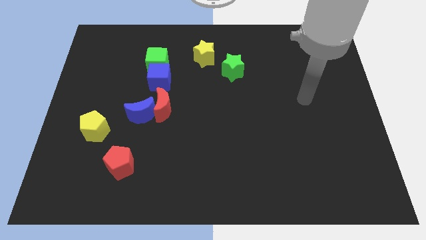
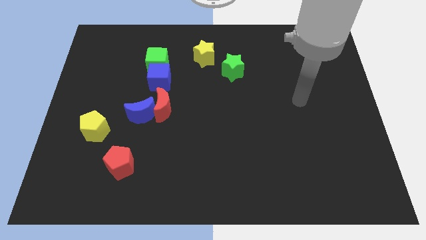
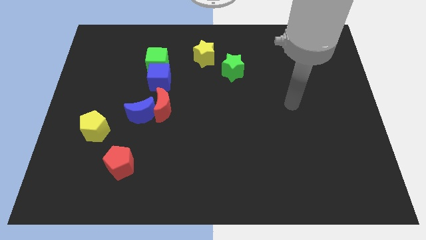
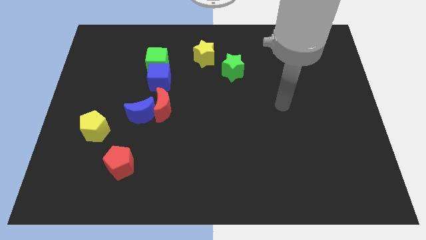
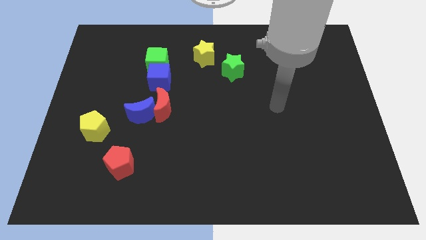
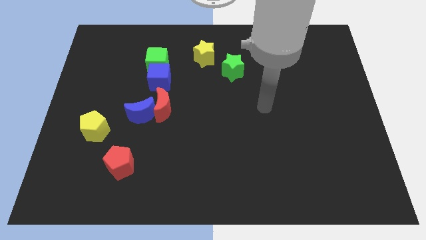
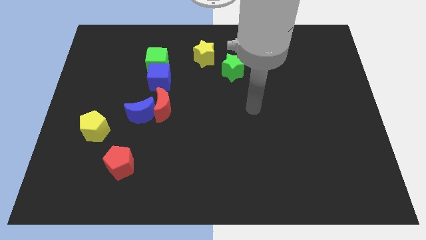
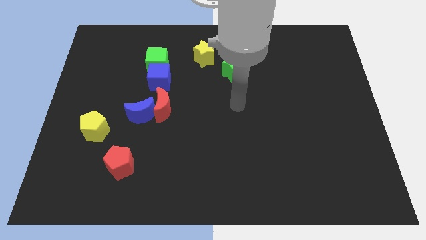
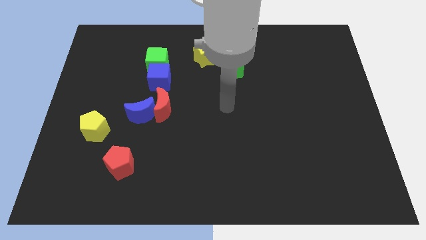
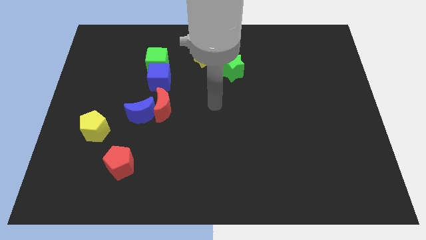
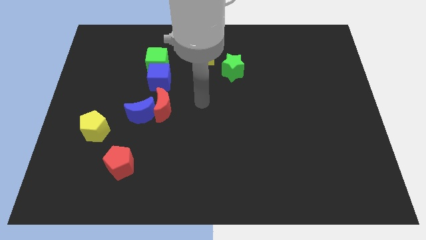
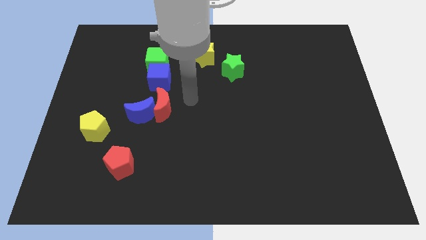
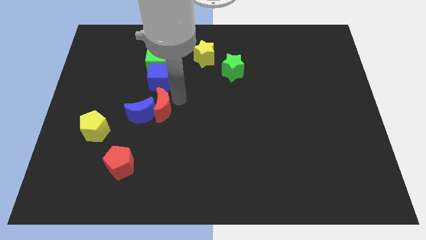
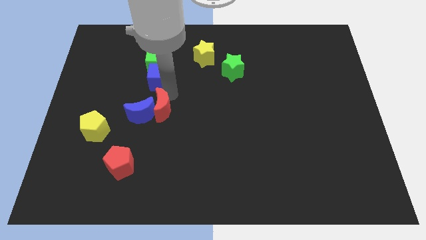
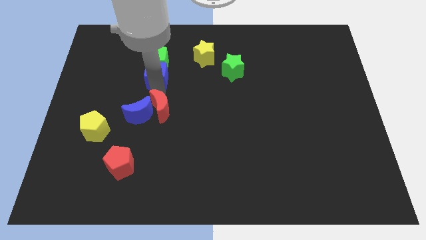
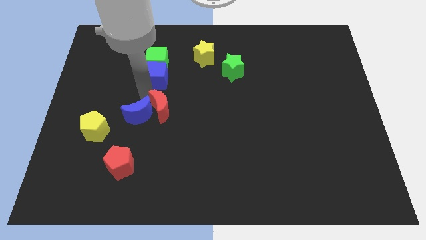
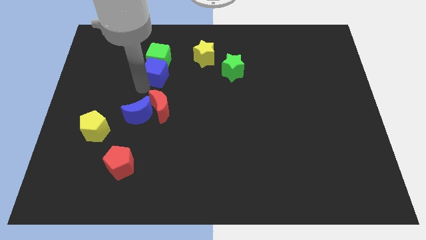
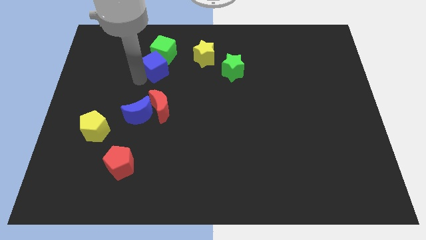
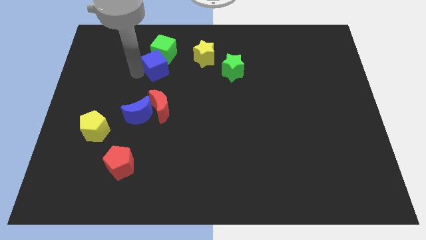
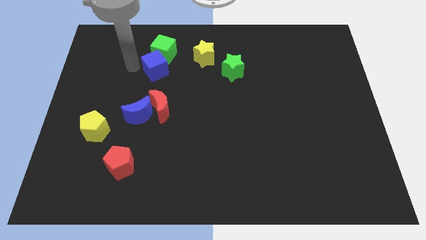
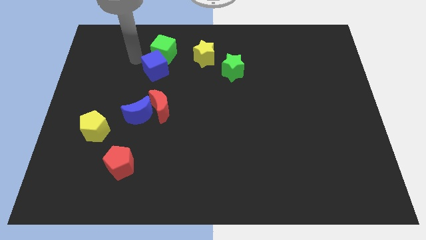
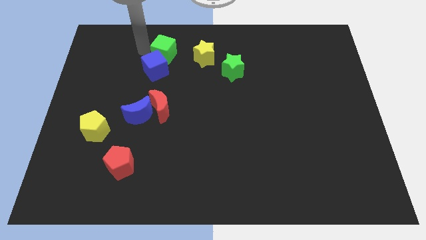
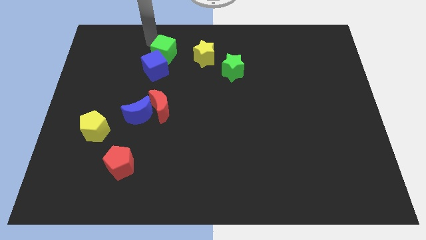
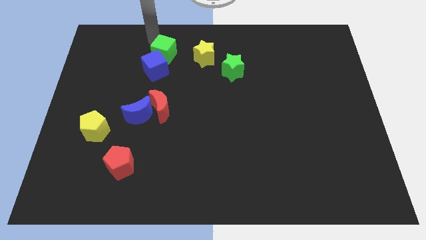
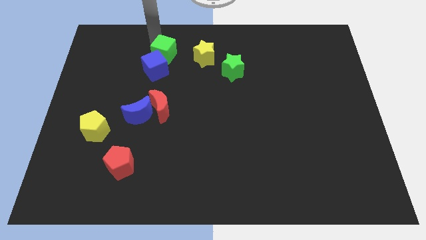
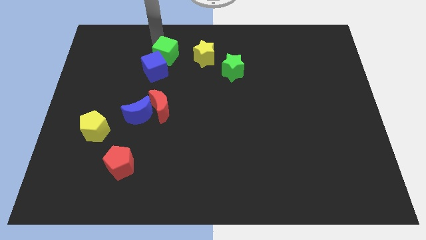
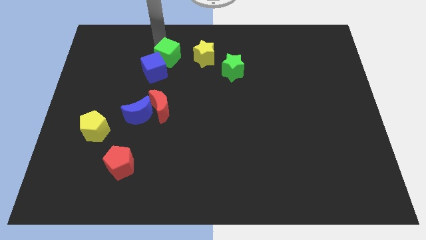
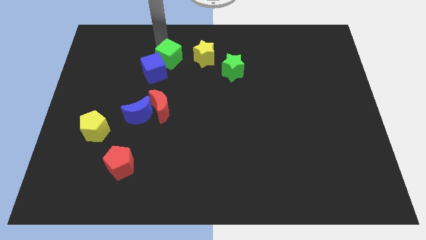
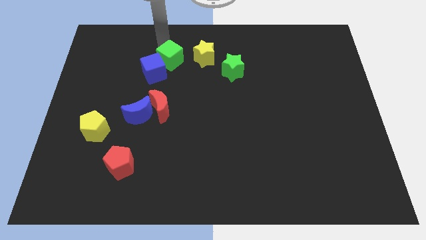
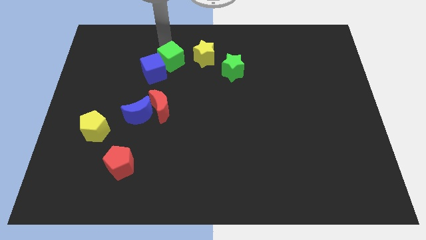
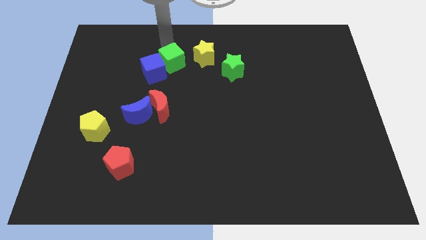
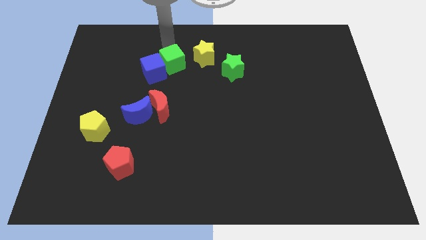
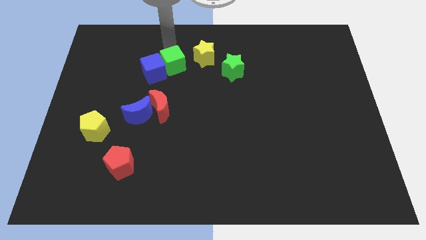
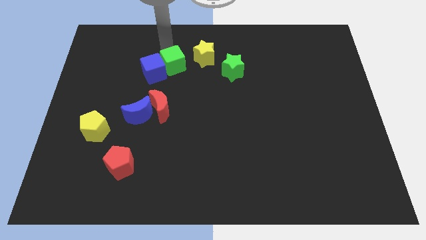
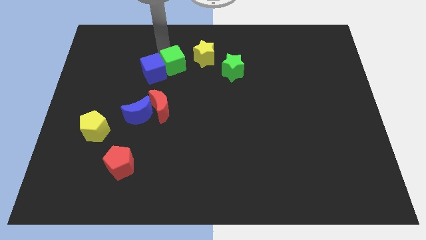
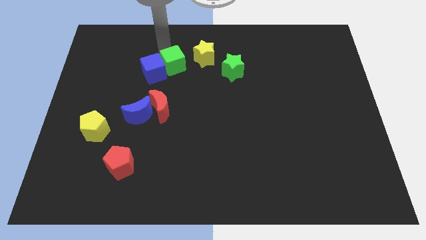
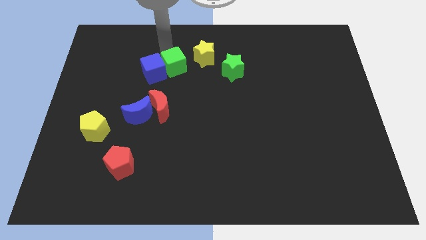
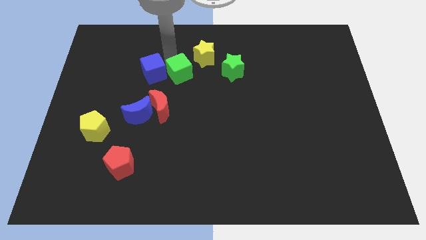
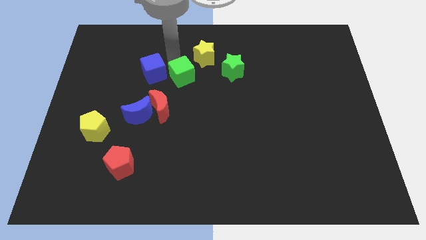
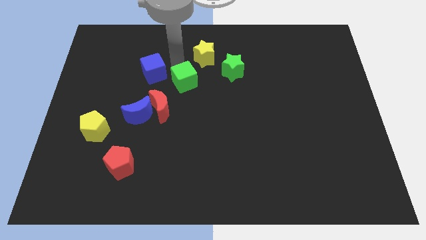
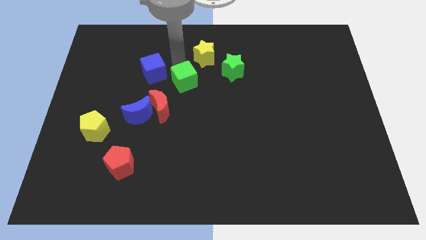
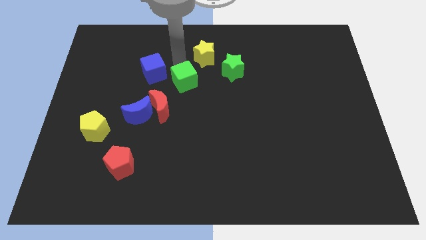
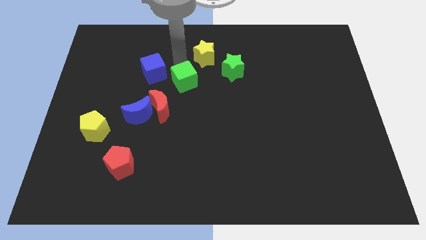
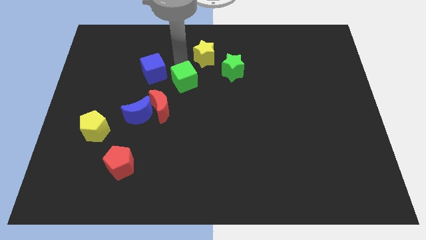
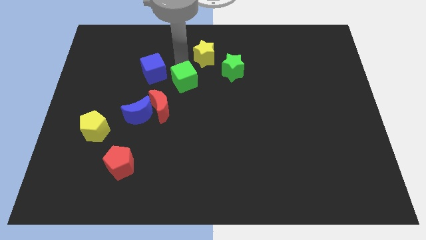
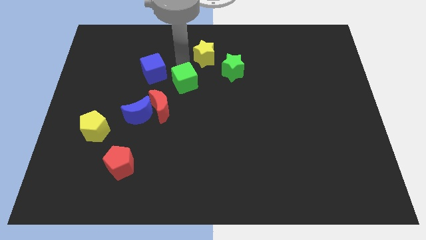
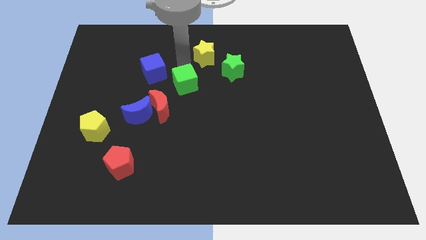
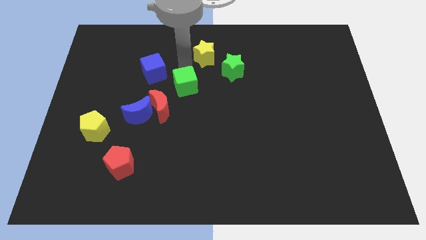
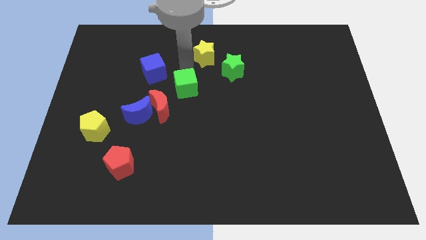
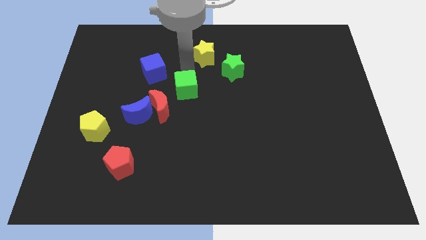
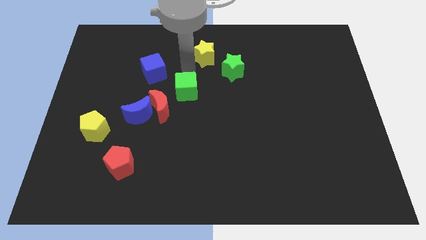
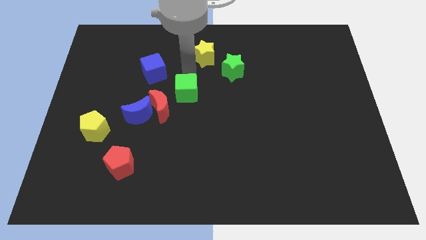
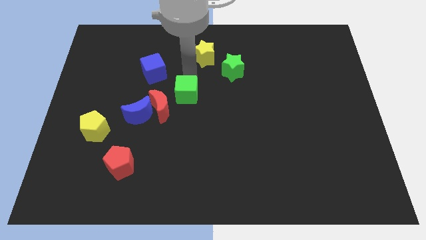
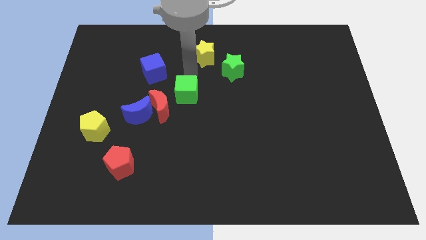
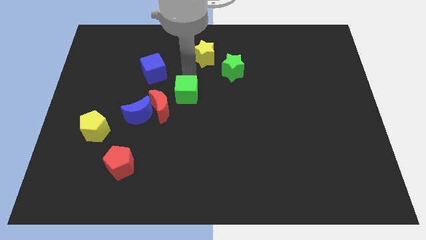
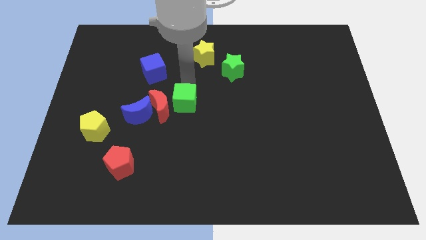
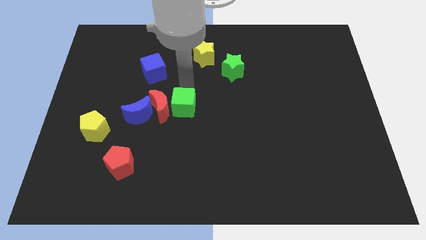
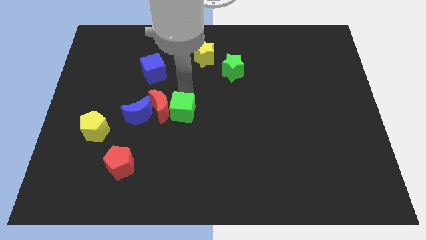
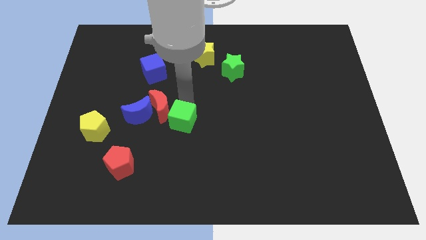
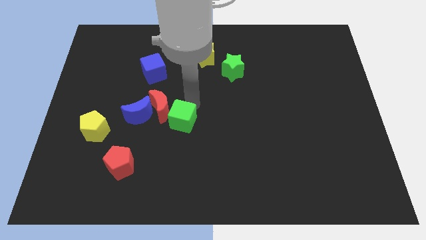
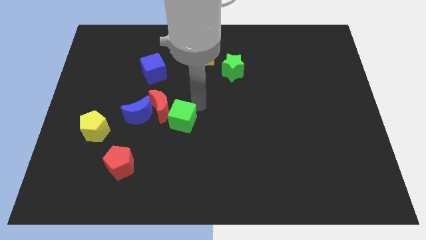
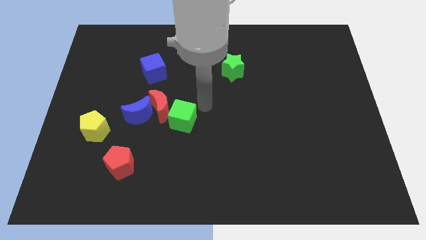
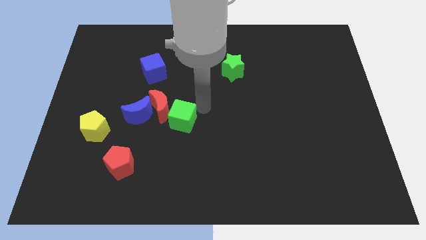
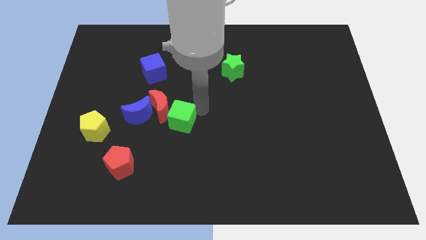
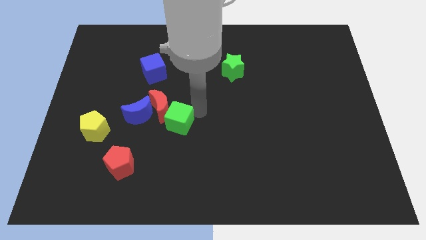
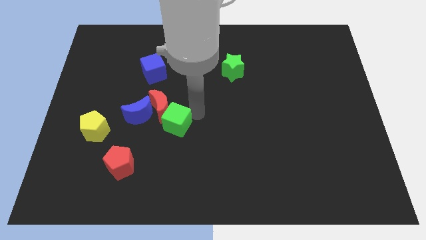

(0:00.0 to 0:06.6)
push the green cube diagonally down and to the right of the blue moon
